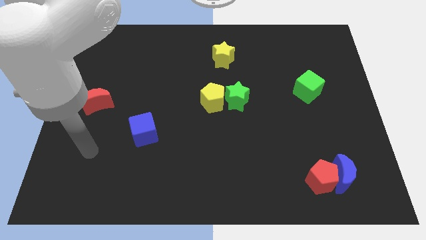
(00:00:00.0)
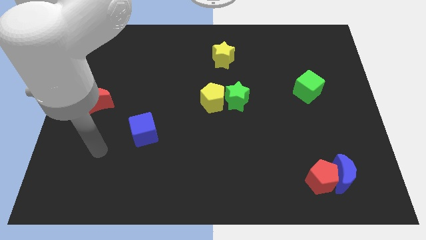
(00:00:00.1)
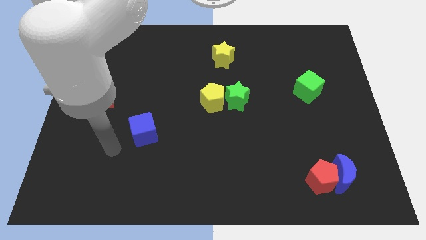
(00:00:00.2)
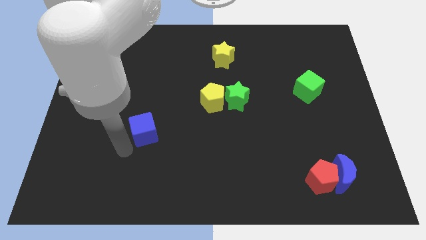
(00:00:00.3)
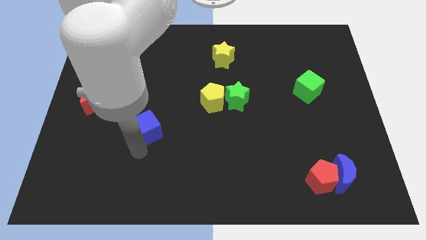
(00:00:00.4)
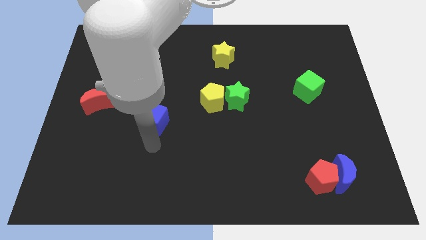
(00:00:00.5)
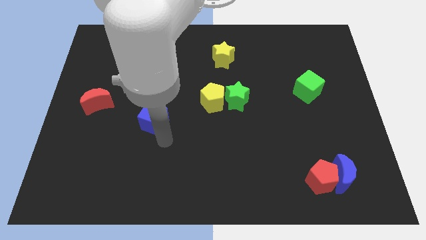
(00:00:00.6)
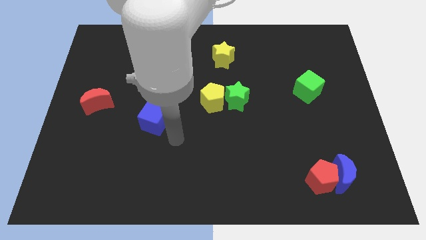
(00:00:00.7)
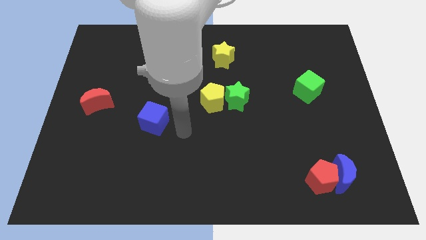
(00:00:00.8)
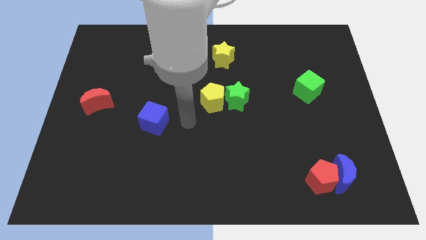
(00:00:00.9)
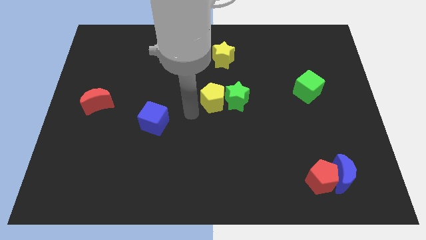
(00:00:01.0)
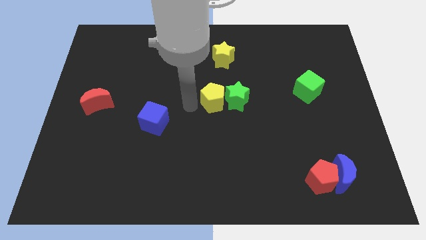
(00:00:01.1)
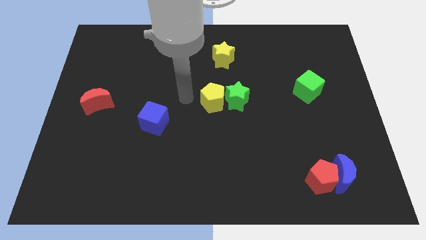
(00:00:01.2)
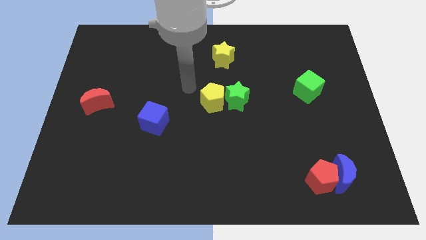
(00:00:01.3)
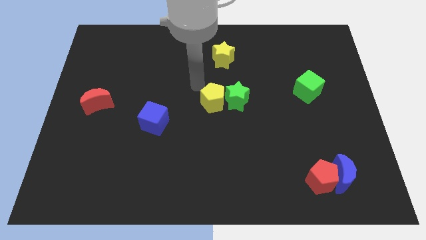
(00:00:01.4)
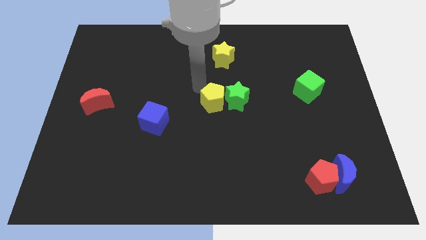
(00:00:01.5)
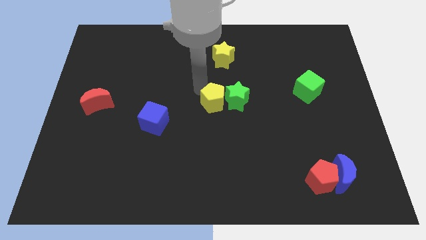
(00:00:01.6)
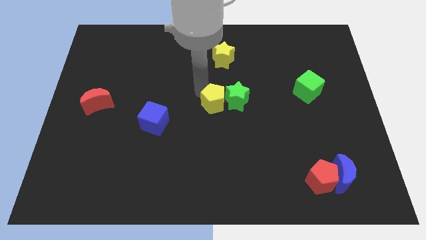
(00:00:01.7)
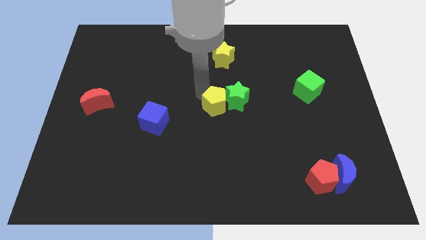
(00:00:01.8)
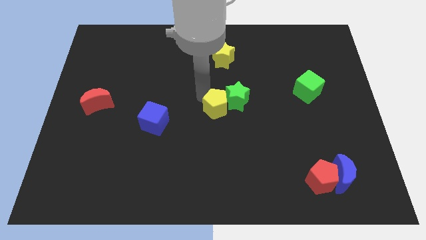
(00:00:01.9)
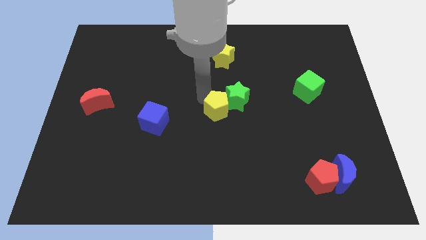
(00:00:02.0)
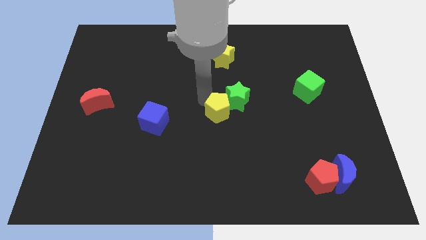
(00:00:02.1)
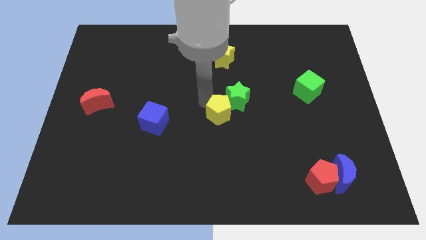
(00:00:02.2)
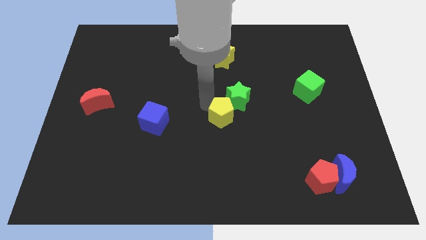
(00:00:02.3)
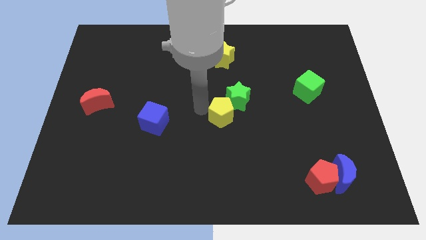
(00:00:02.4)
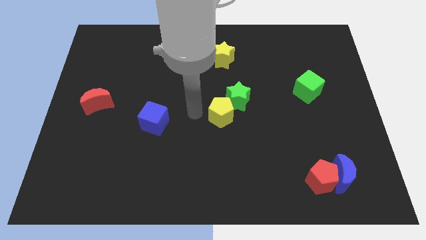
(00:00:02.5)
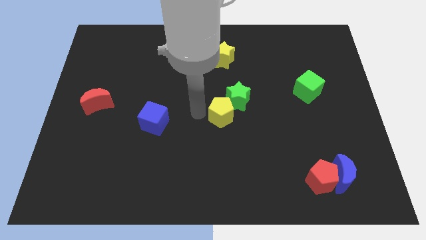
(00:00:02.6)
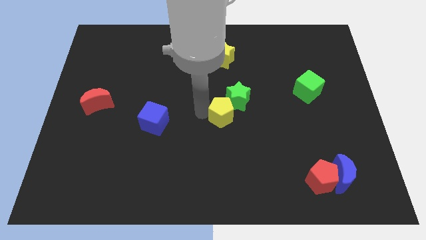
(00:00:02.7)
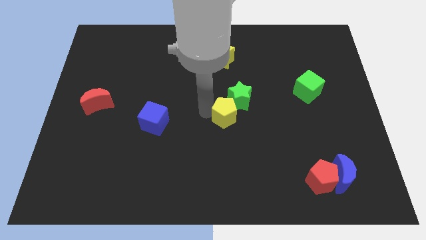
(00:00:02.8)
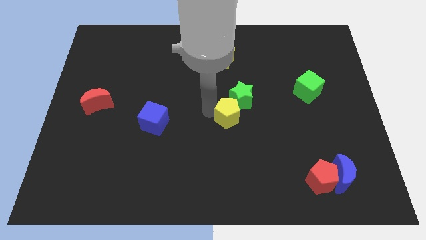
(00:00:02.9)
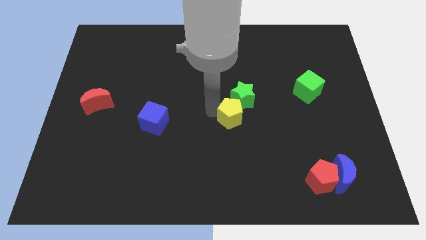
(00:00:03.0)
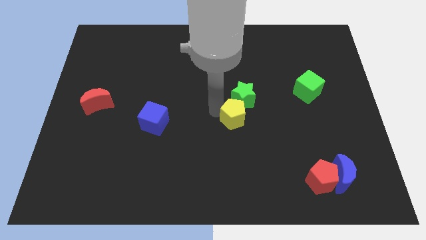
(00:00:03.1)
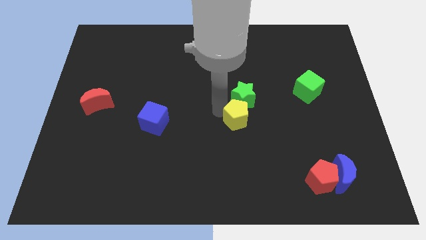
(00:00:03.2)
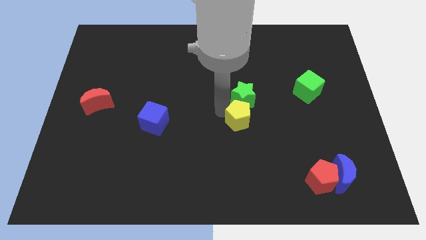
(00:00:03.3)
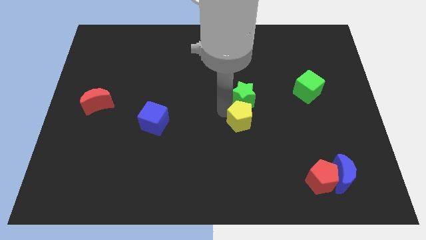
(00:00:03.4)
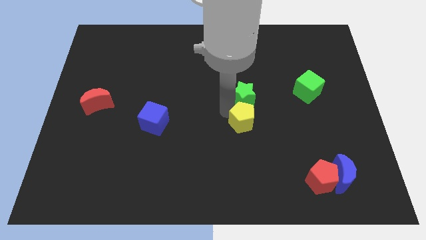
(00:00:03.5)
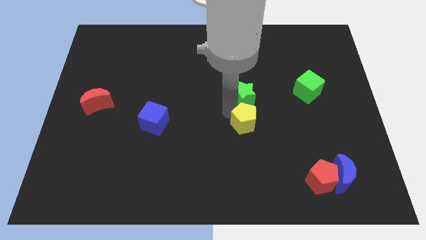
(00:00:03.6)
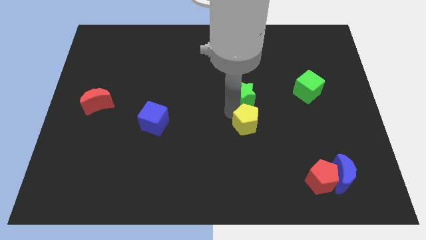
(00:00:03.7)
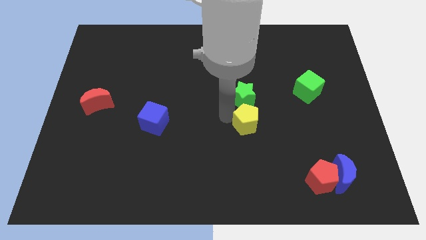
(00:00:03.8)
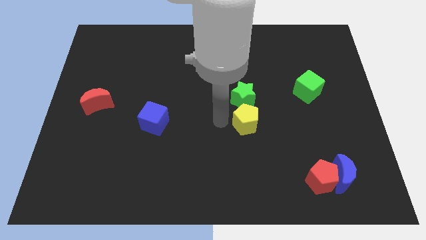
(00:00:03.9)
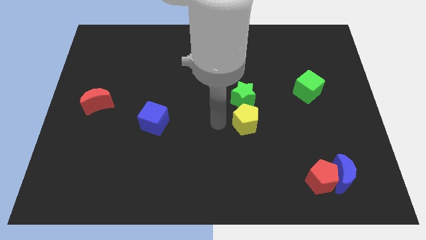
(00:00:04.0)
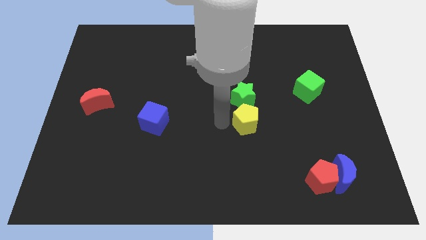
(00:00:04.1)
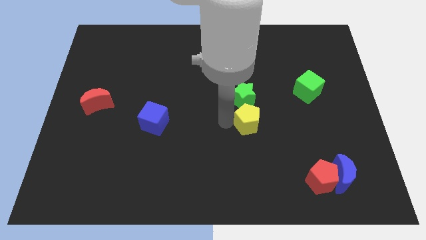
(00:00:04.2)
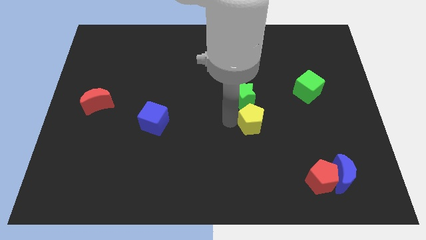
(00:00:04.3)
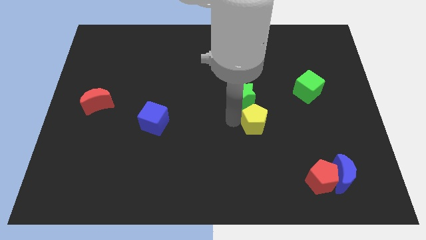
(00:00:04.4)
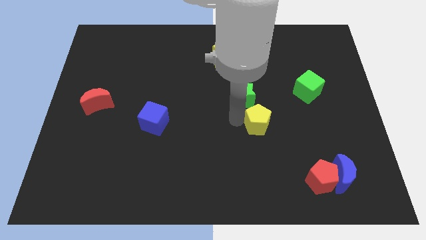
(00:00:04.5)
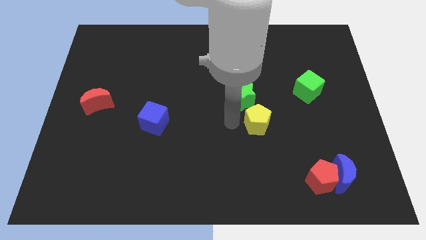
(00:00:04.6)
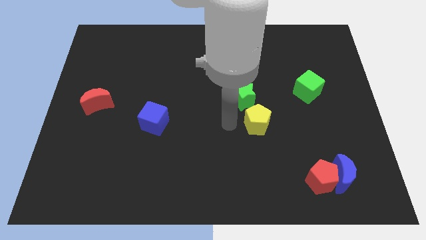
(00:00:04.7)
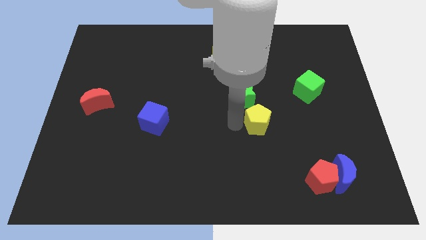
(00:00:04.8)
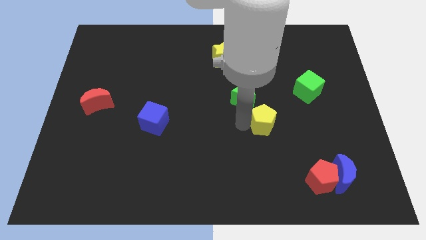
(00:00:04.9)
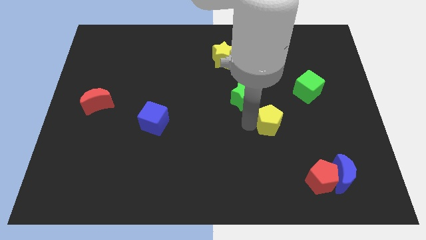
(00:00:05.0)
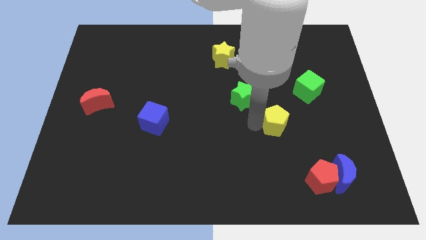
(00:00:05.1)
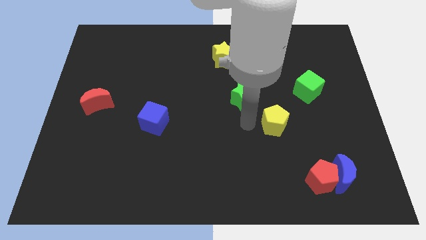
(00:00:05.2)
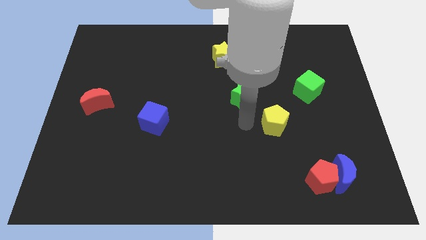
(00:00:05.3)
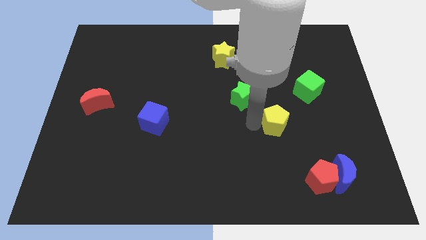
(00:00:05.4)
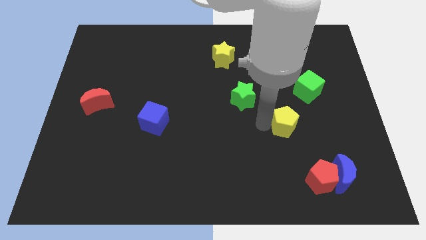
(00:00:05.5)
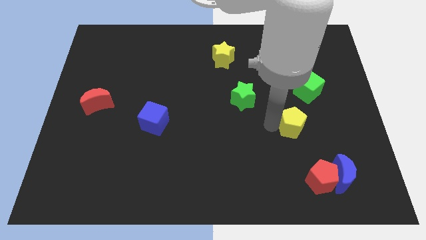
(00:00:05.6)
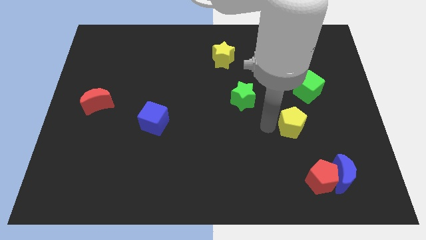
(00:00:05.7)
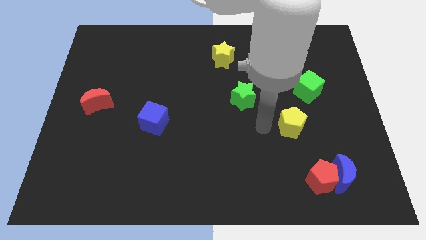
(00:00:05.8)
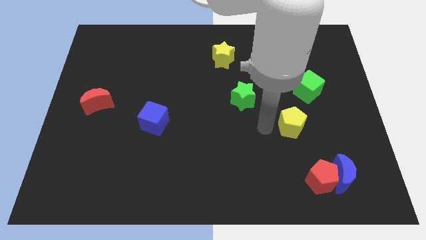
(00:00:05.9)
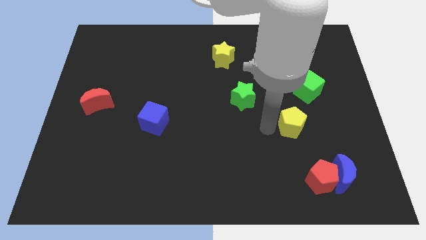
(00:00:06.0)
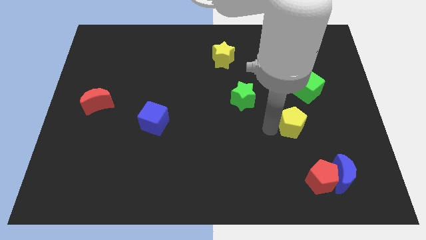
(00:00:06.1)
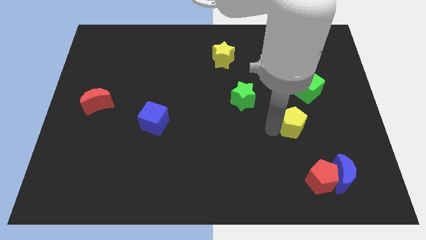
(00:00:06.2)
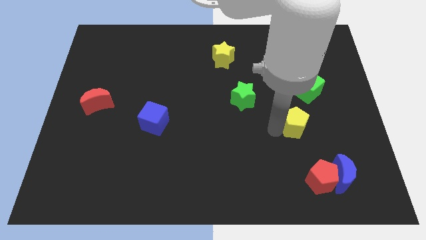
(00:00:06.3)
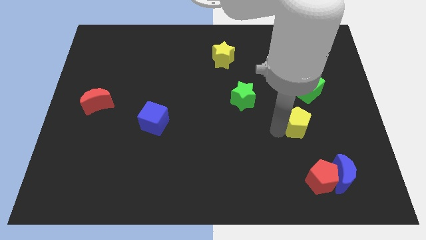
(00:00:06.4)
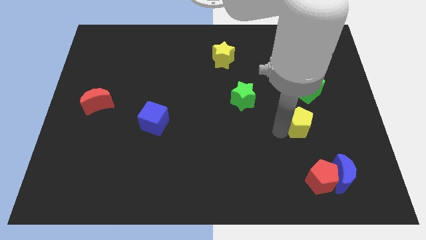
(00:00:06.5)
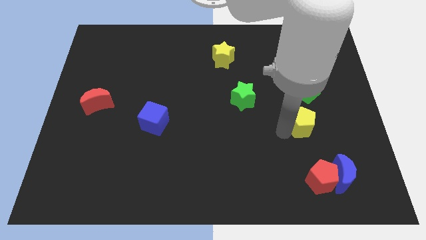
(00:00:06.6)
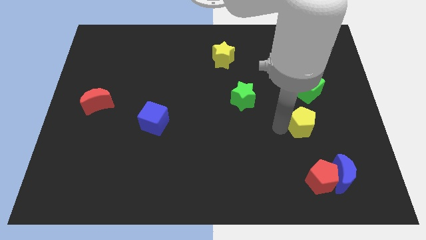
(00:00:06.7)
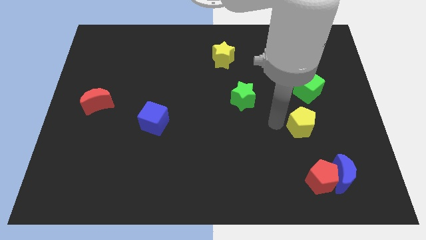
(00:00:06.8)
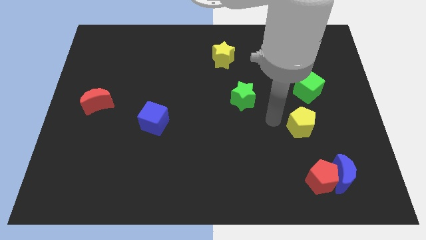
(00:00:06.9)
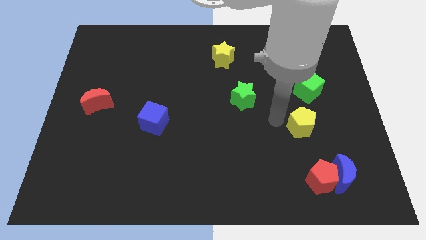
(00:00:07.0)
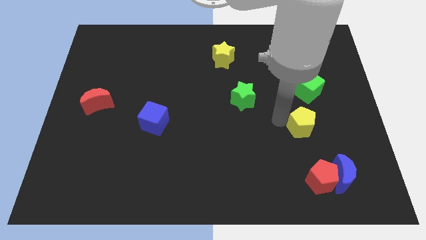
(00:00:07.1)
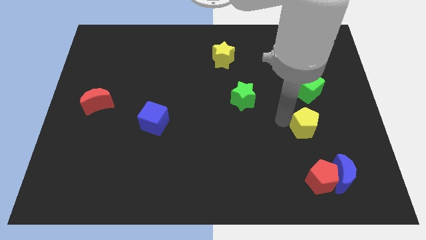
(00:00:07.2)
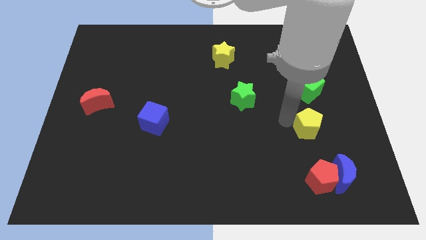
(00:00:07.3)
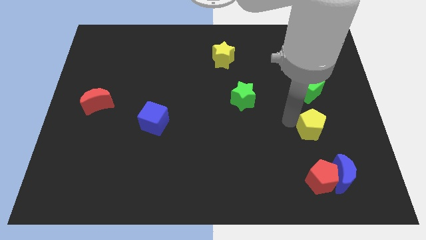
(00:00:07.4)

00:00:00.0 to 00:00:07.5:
move the yellow pentagon to the top side of the blue moon
